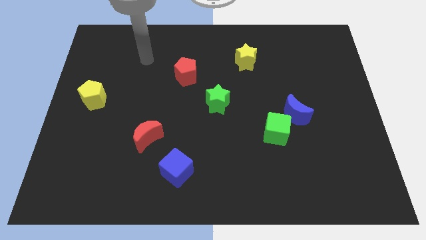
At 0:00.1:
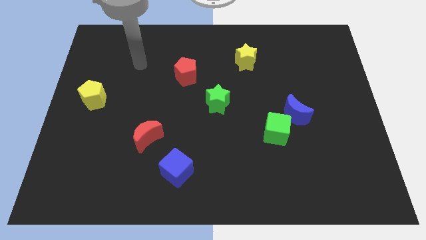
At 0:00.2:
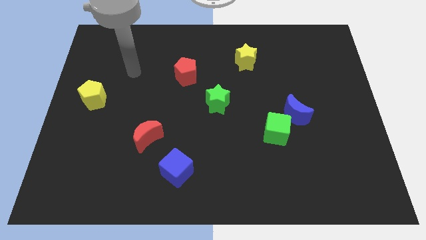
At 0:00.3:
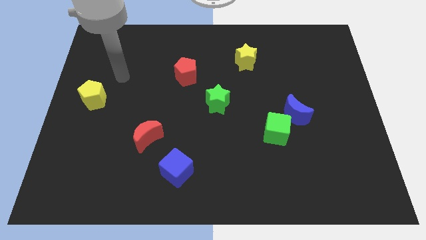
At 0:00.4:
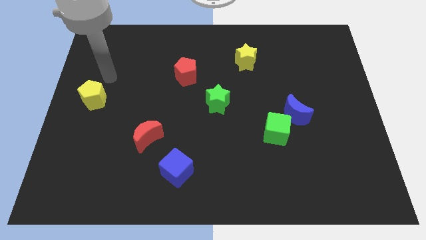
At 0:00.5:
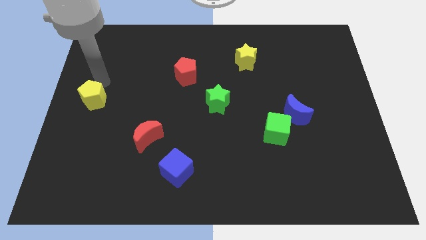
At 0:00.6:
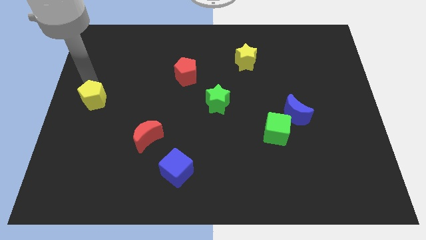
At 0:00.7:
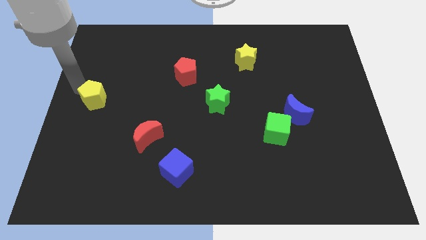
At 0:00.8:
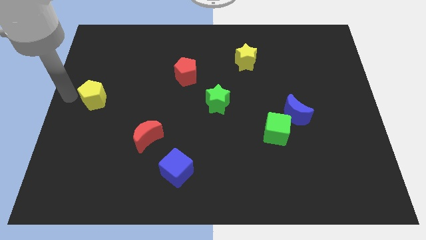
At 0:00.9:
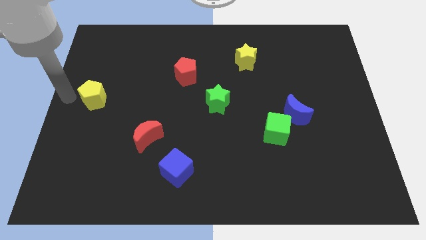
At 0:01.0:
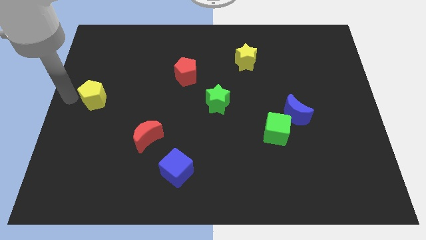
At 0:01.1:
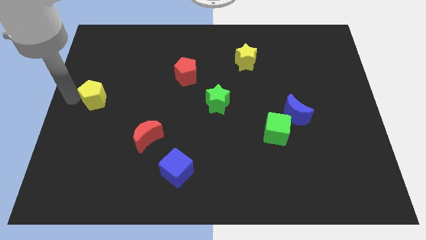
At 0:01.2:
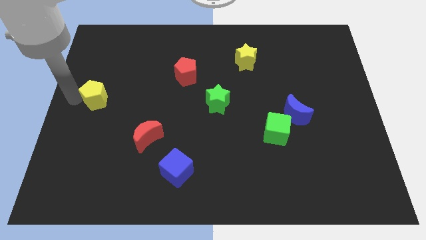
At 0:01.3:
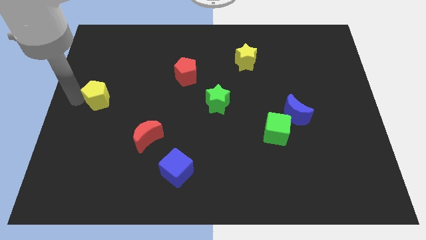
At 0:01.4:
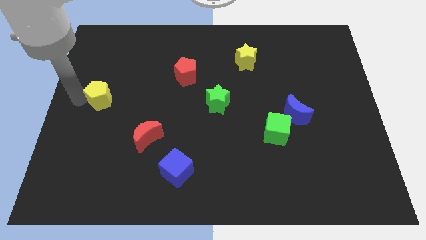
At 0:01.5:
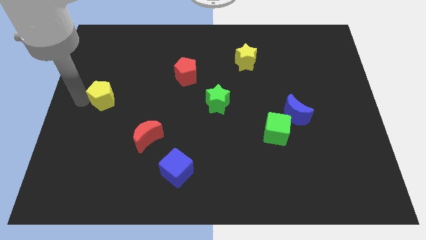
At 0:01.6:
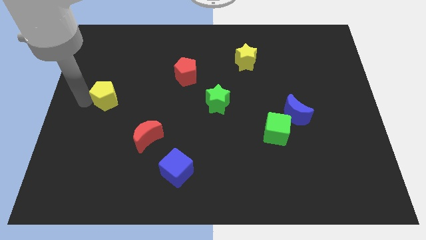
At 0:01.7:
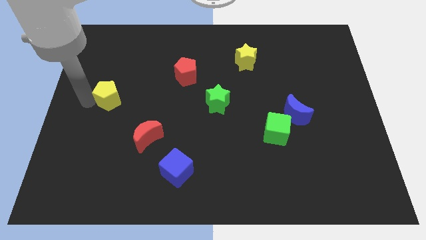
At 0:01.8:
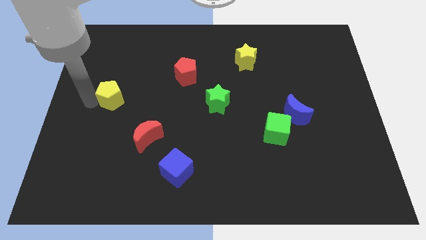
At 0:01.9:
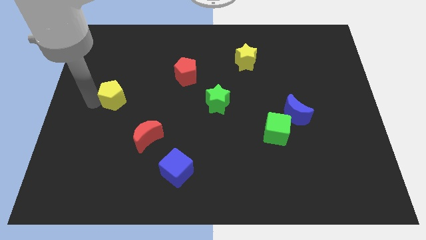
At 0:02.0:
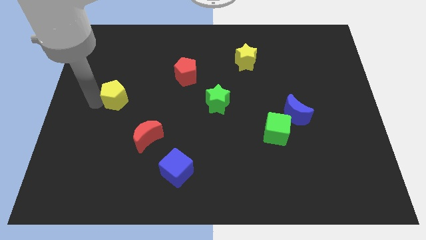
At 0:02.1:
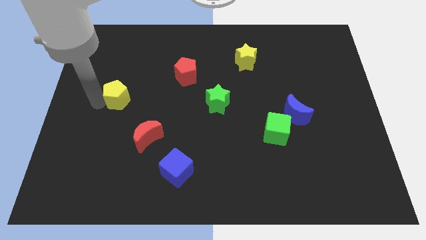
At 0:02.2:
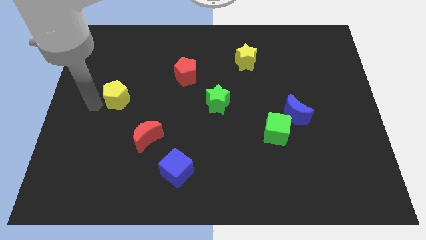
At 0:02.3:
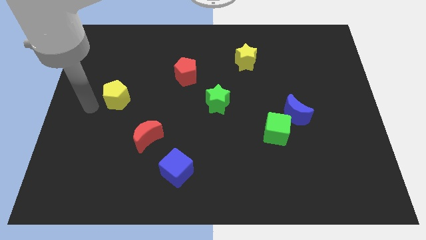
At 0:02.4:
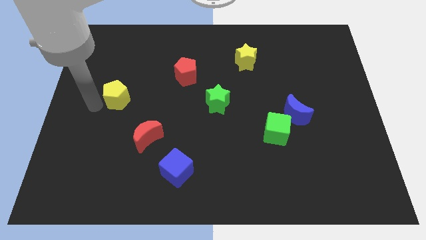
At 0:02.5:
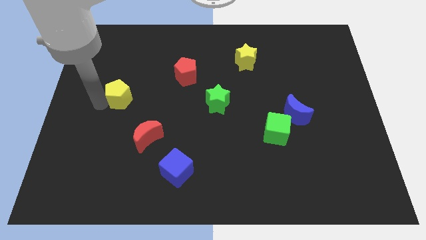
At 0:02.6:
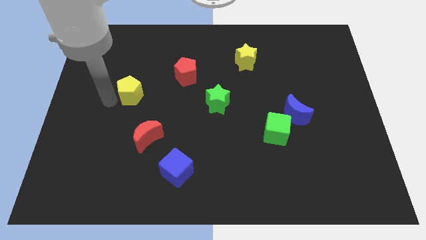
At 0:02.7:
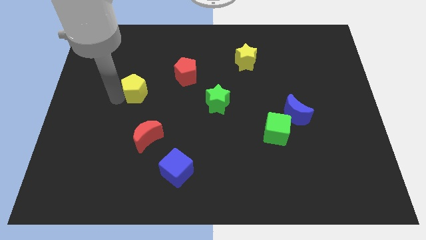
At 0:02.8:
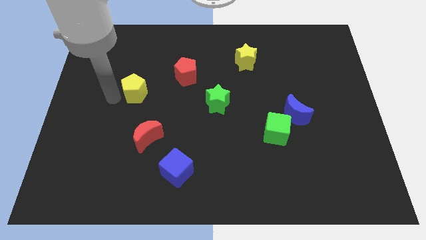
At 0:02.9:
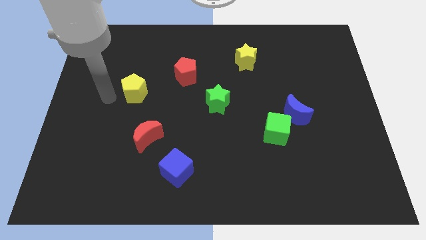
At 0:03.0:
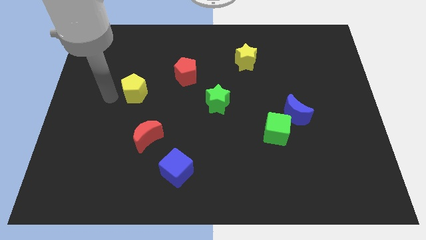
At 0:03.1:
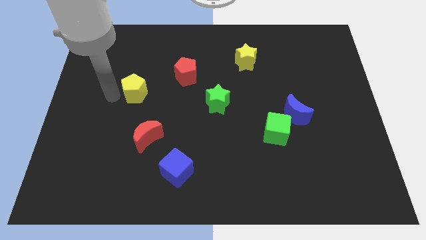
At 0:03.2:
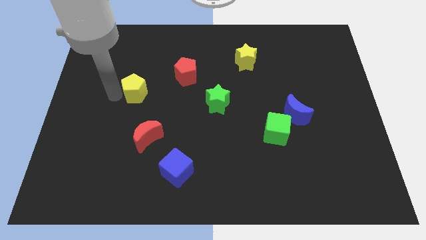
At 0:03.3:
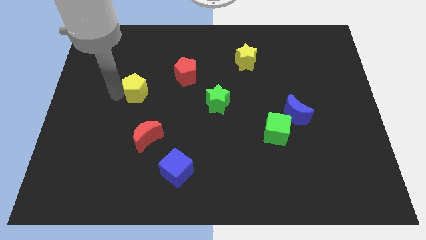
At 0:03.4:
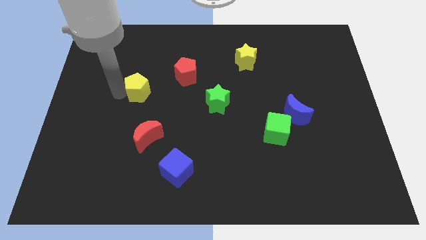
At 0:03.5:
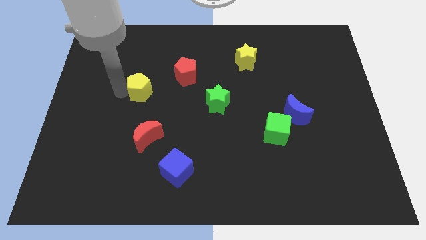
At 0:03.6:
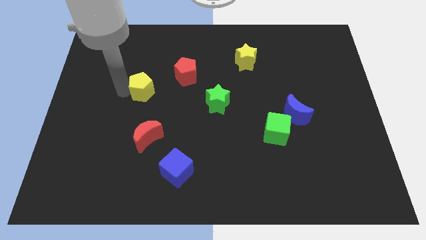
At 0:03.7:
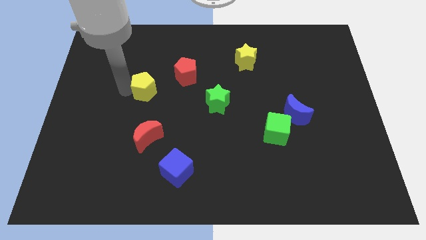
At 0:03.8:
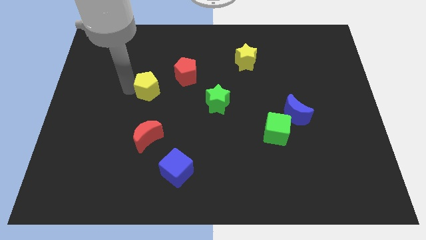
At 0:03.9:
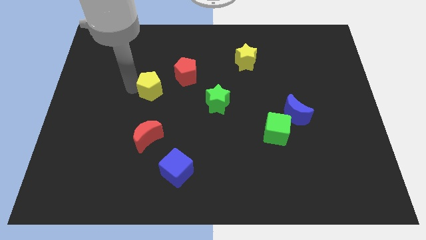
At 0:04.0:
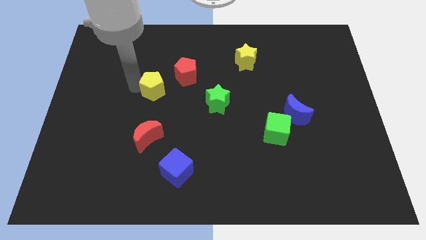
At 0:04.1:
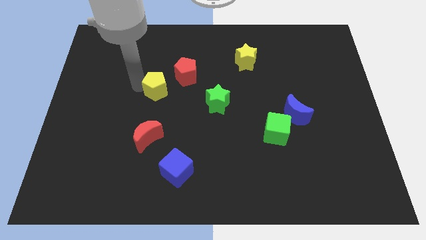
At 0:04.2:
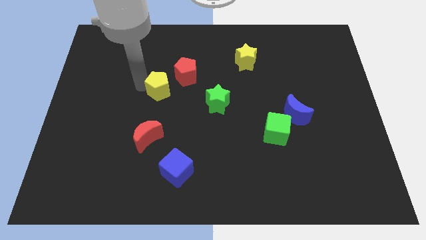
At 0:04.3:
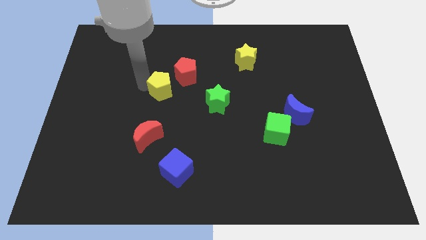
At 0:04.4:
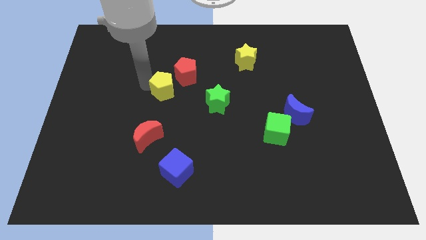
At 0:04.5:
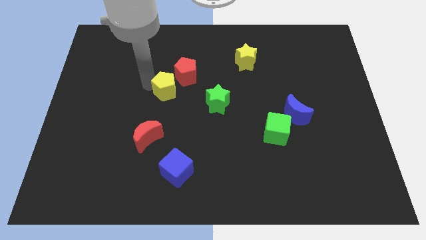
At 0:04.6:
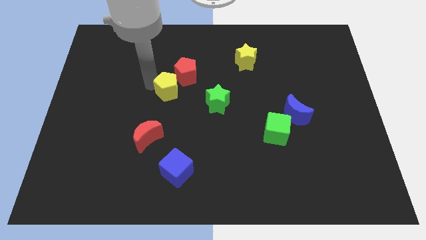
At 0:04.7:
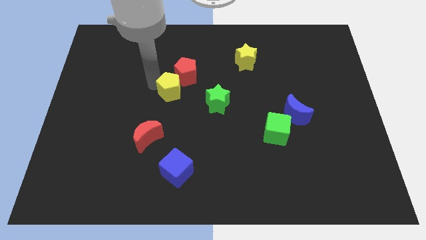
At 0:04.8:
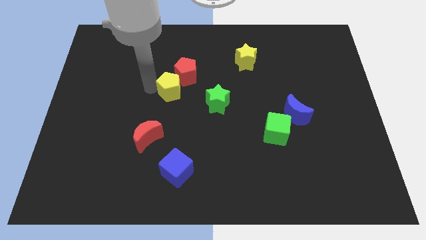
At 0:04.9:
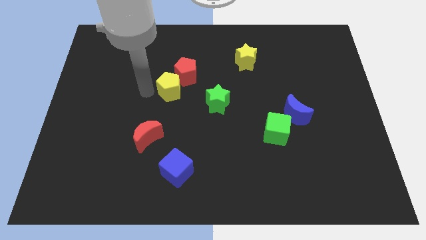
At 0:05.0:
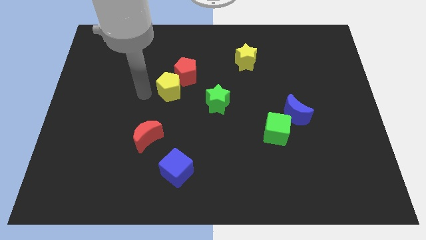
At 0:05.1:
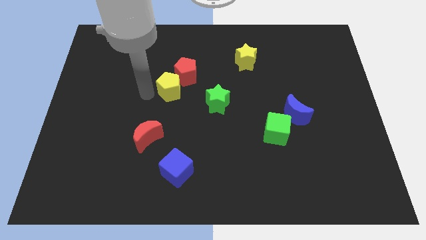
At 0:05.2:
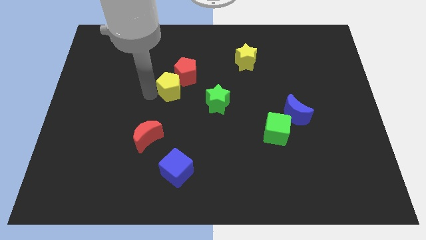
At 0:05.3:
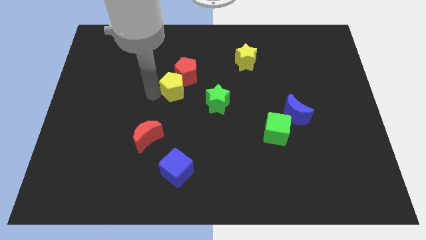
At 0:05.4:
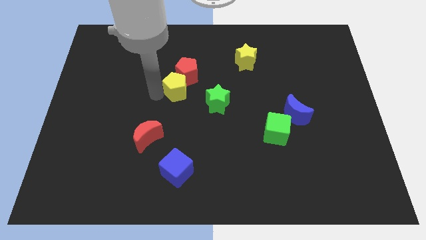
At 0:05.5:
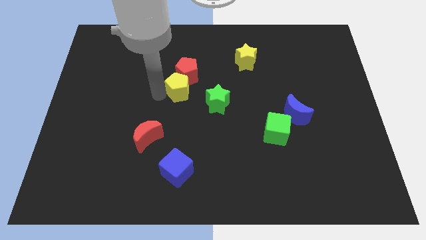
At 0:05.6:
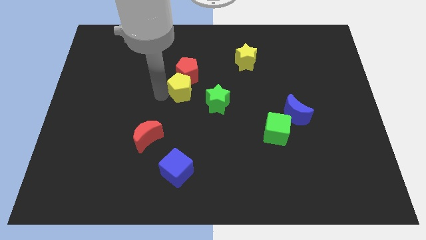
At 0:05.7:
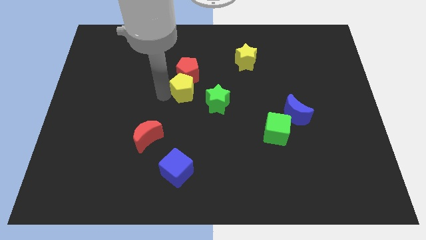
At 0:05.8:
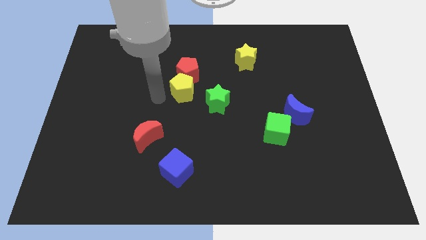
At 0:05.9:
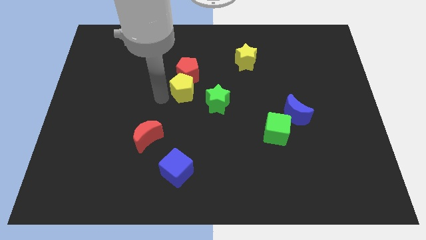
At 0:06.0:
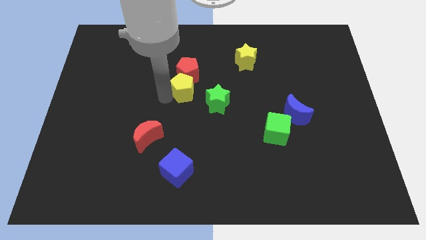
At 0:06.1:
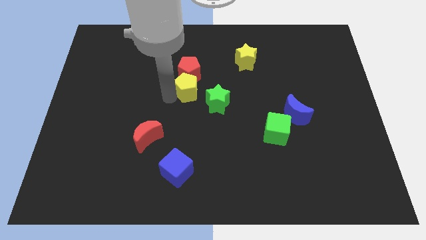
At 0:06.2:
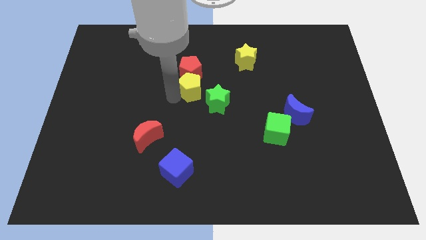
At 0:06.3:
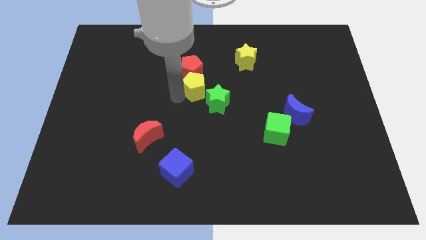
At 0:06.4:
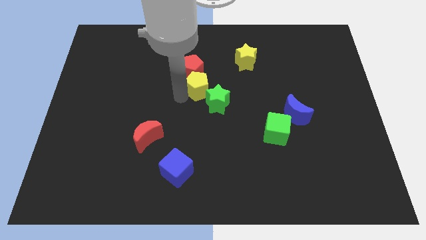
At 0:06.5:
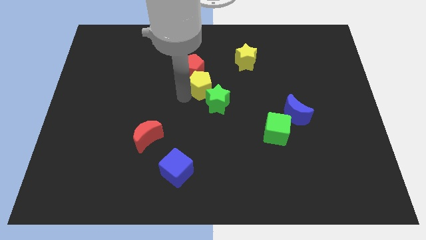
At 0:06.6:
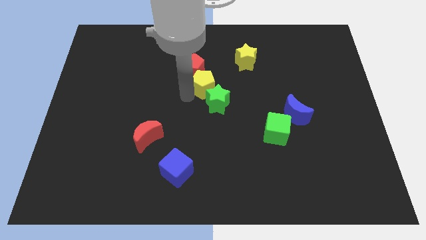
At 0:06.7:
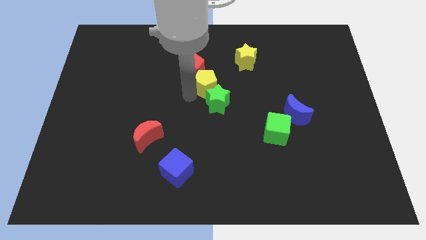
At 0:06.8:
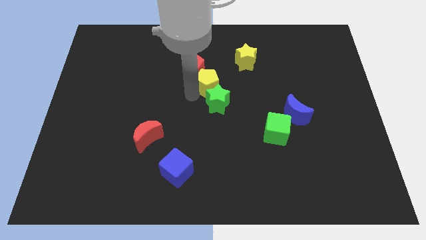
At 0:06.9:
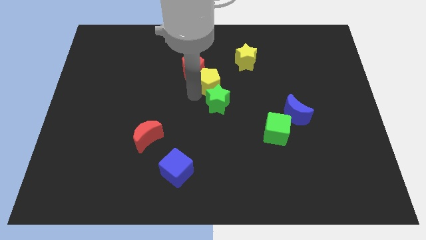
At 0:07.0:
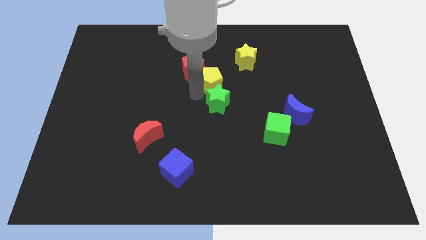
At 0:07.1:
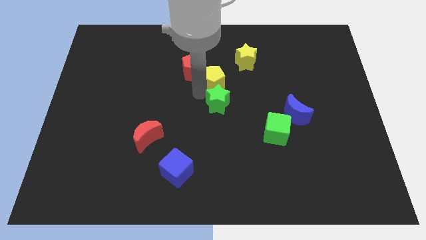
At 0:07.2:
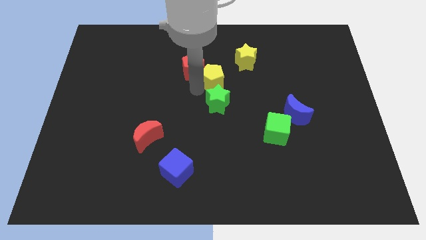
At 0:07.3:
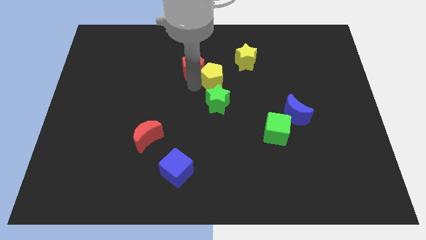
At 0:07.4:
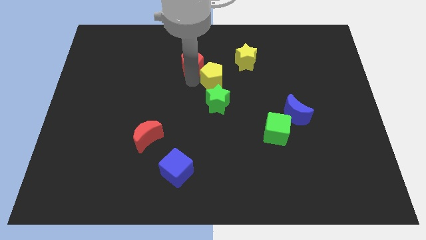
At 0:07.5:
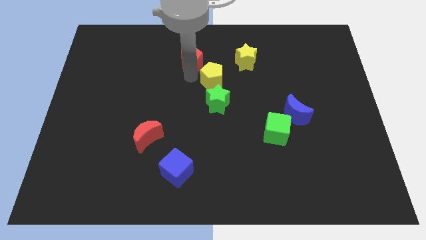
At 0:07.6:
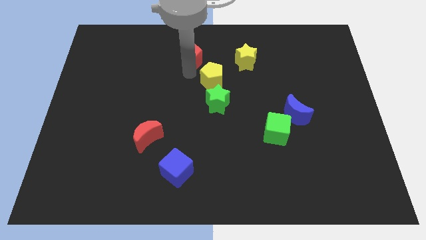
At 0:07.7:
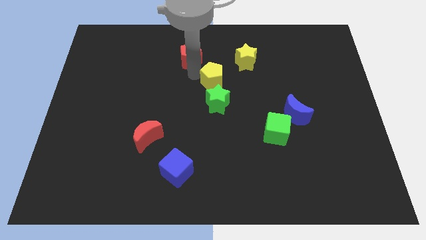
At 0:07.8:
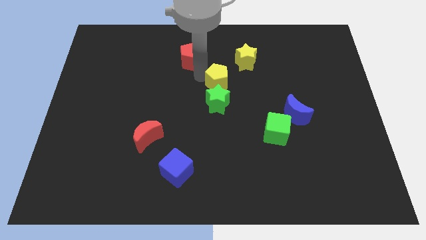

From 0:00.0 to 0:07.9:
move the yellow pentagon to the top right of the green star
